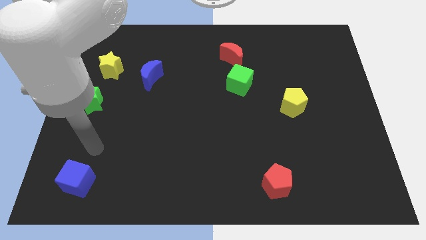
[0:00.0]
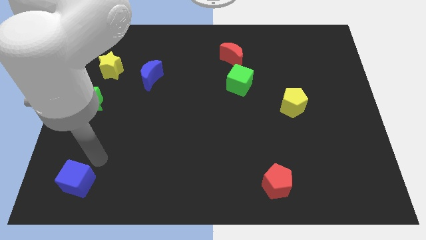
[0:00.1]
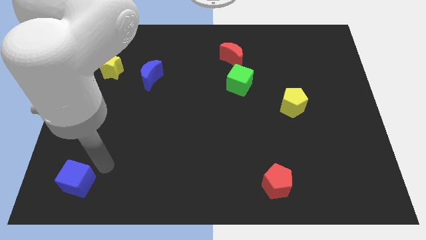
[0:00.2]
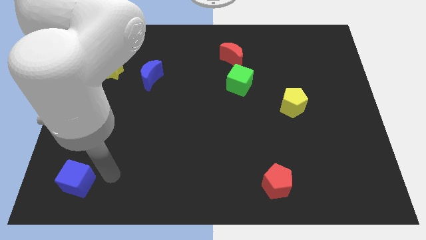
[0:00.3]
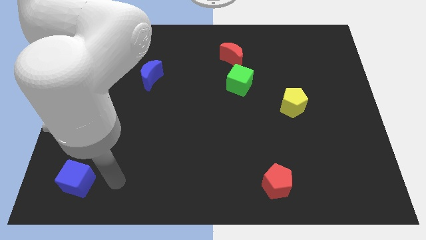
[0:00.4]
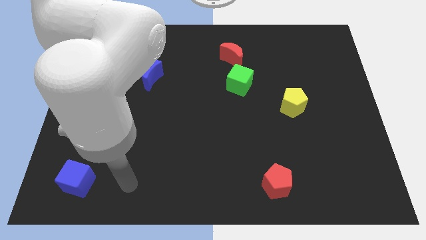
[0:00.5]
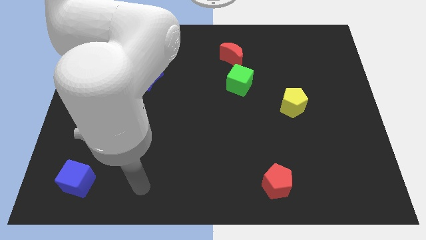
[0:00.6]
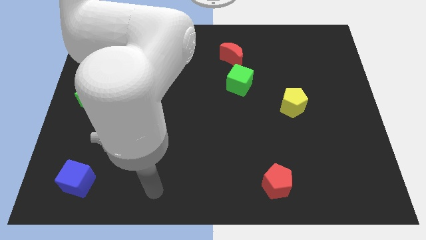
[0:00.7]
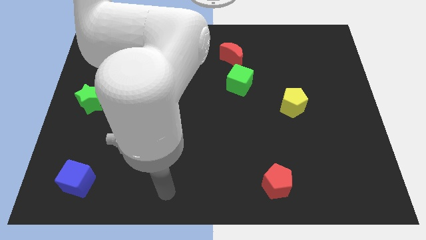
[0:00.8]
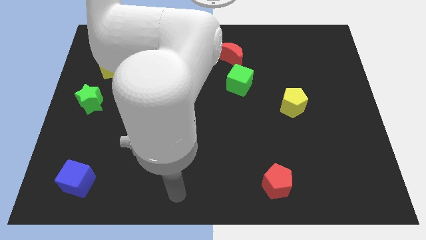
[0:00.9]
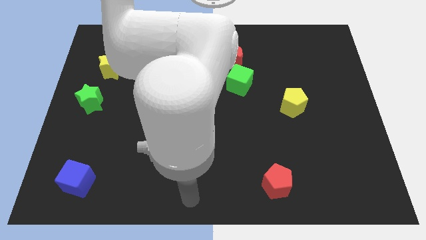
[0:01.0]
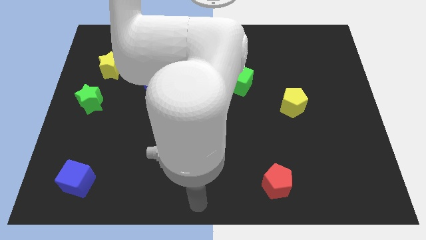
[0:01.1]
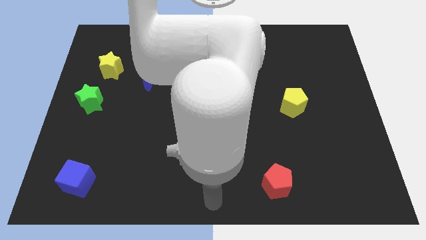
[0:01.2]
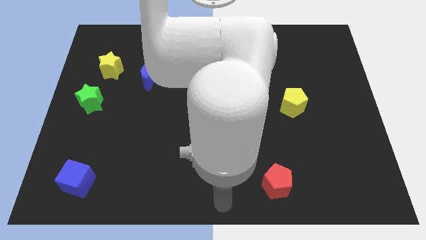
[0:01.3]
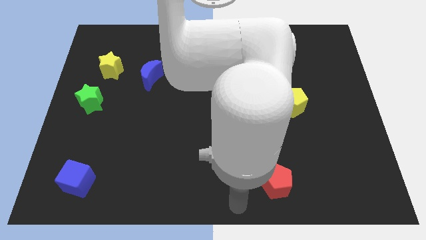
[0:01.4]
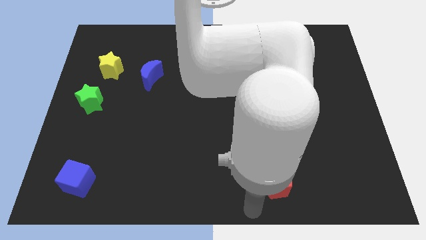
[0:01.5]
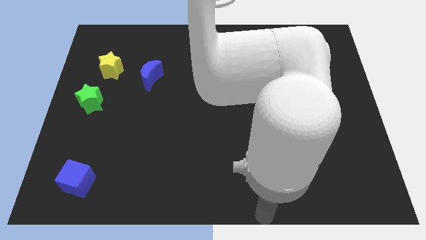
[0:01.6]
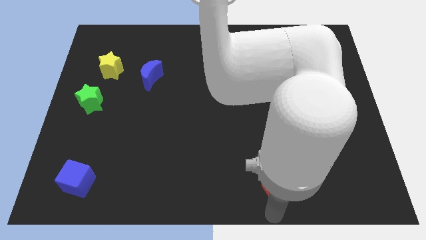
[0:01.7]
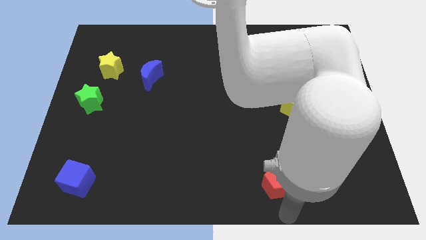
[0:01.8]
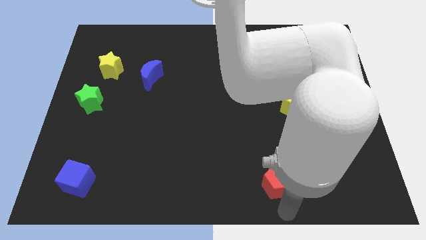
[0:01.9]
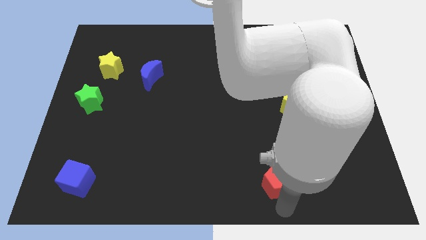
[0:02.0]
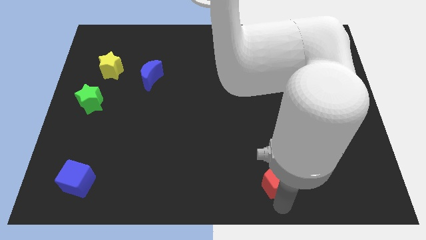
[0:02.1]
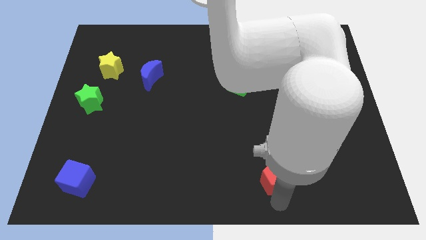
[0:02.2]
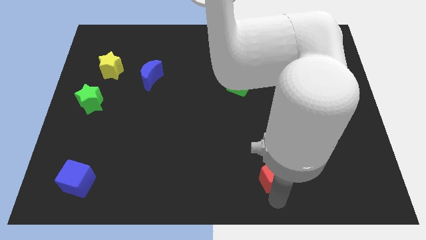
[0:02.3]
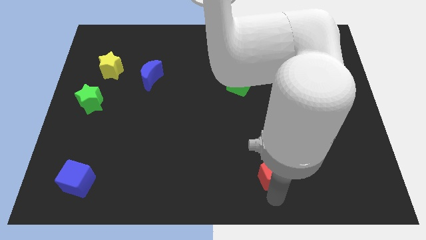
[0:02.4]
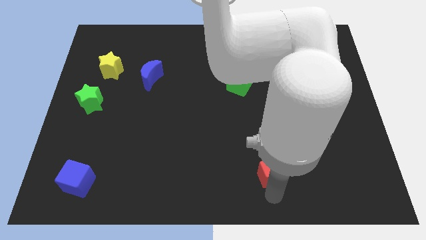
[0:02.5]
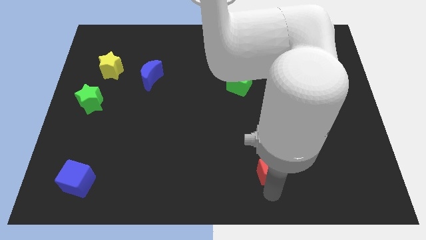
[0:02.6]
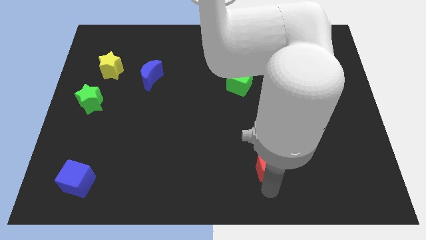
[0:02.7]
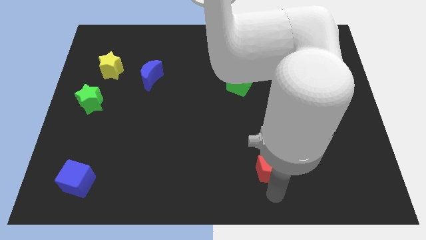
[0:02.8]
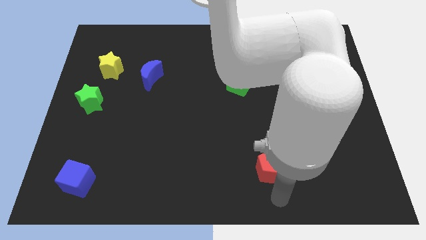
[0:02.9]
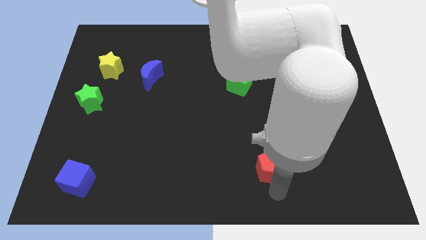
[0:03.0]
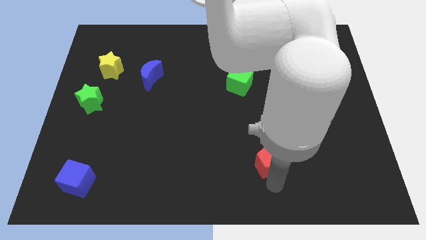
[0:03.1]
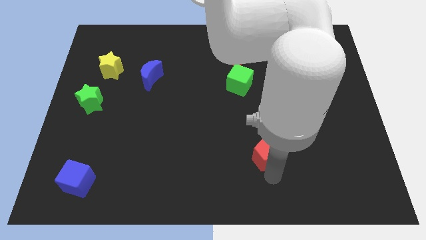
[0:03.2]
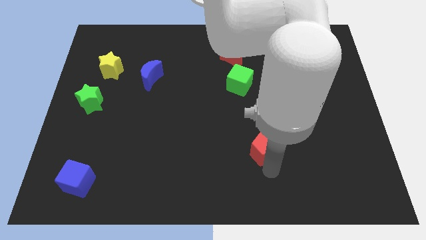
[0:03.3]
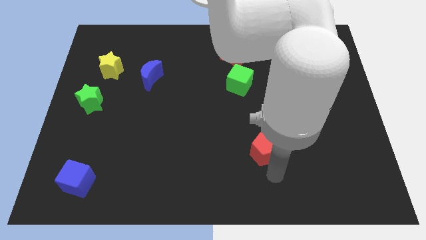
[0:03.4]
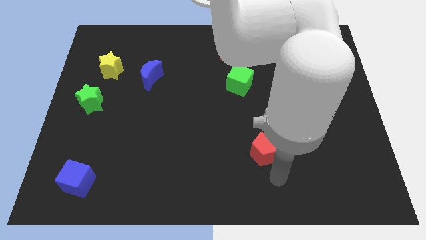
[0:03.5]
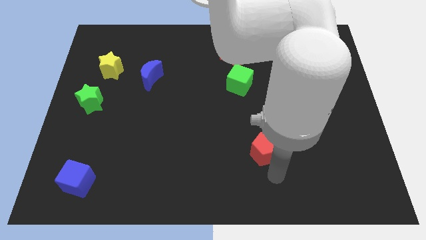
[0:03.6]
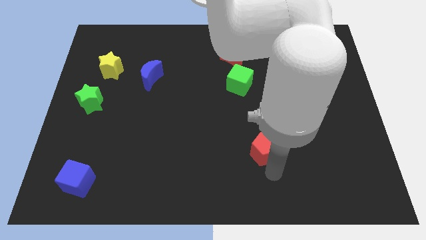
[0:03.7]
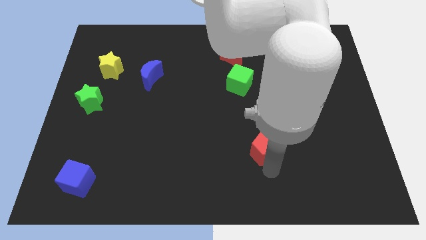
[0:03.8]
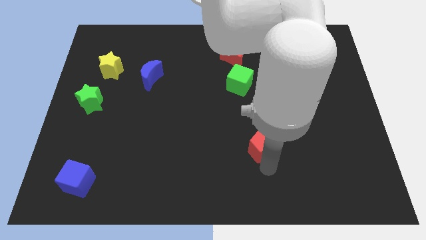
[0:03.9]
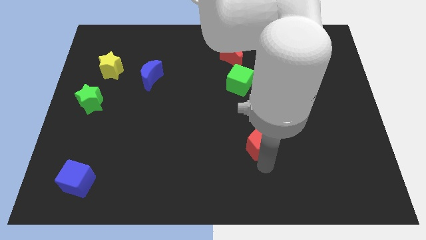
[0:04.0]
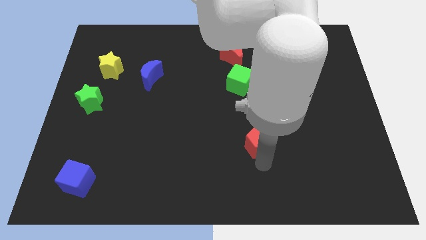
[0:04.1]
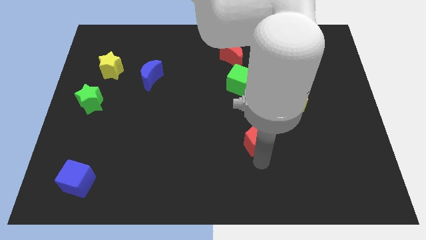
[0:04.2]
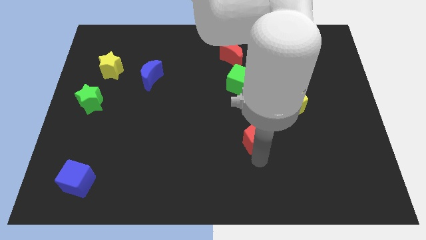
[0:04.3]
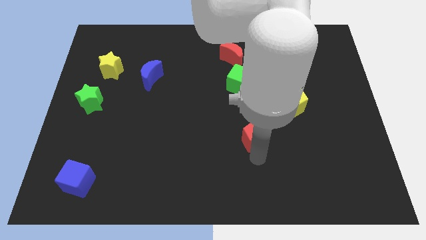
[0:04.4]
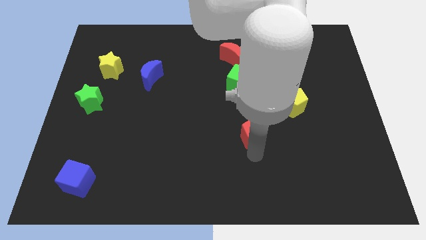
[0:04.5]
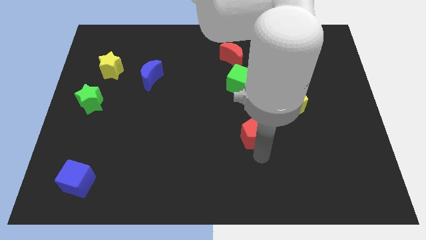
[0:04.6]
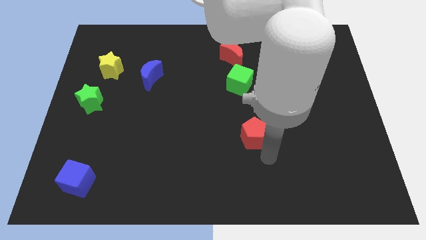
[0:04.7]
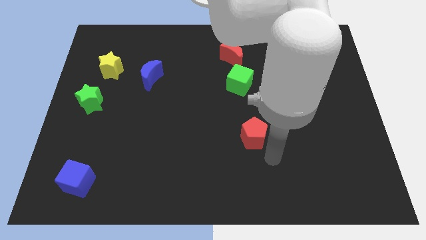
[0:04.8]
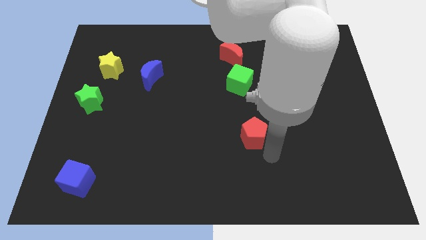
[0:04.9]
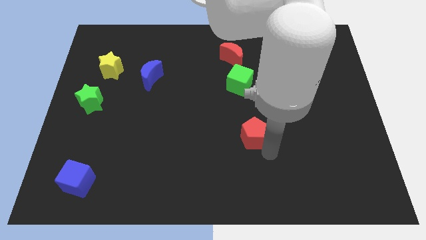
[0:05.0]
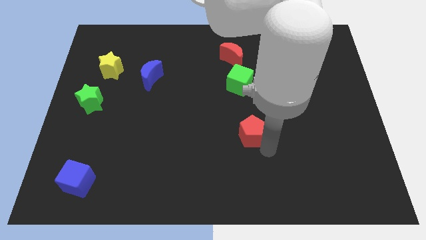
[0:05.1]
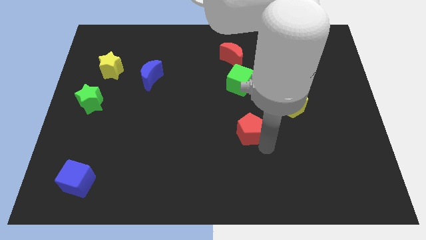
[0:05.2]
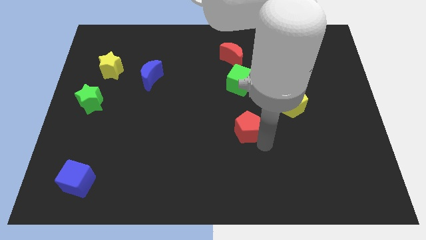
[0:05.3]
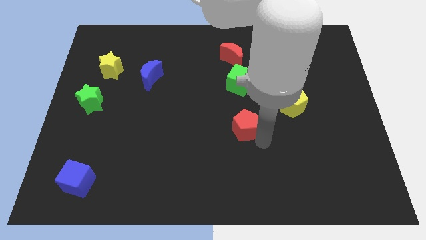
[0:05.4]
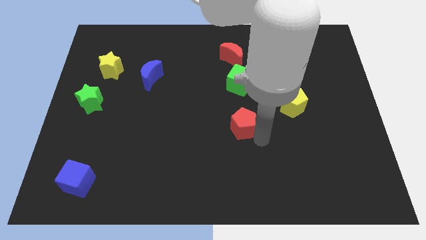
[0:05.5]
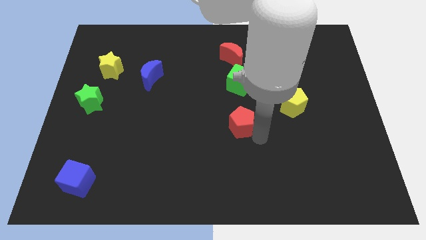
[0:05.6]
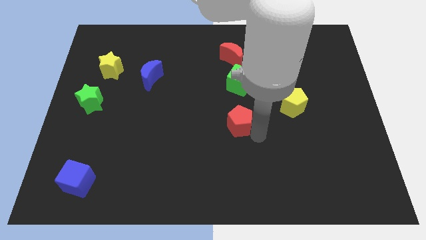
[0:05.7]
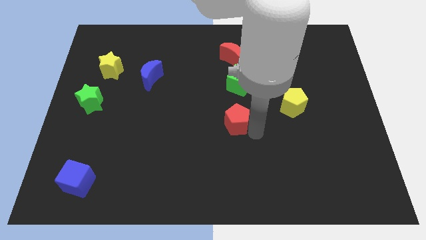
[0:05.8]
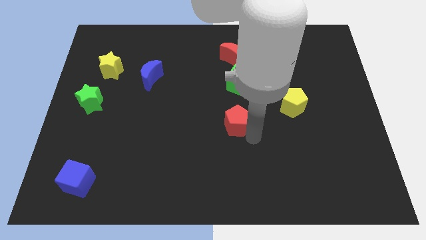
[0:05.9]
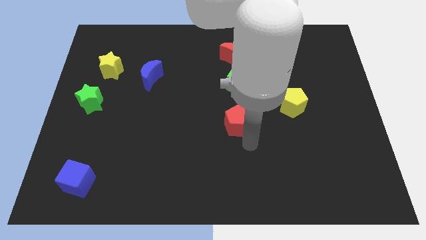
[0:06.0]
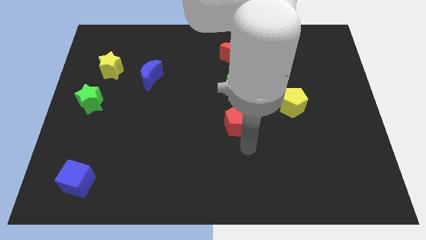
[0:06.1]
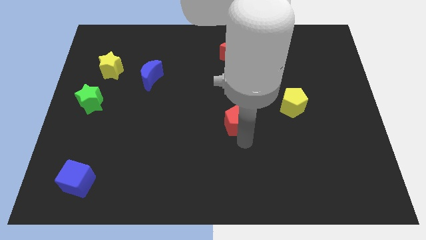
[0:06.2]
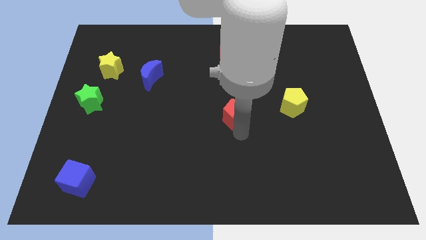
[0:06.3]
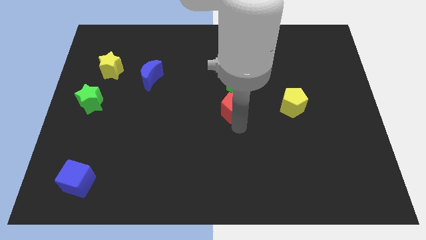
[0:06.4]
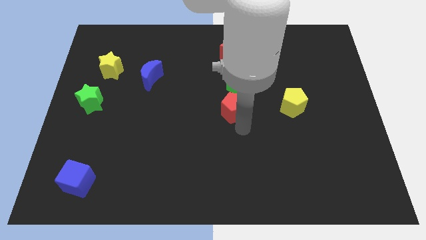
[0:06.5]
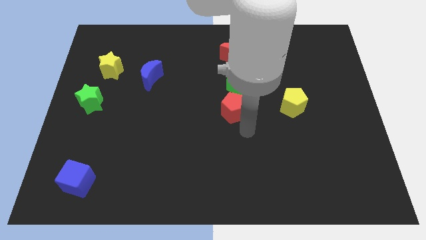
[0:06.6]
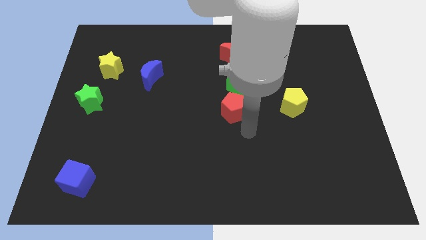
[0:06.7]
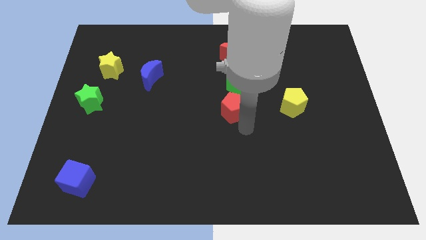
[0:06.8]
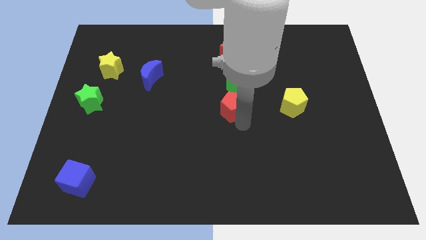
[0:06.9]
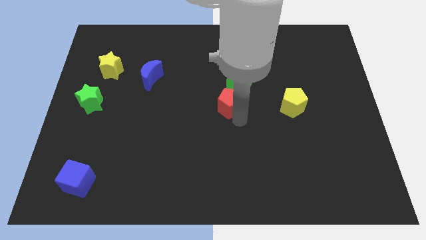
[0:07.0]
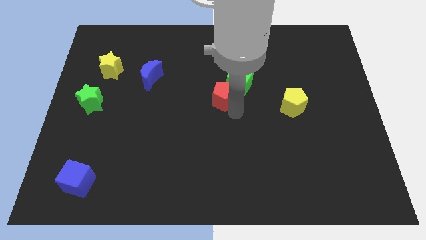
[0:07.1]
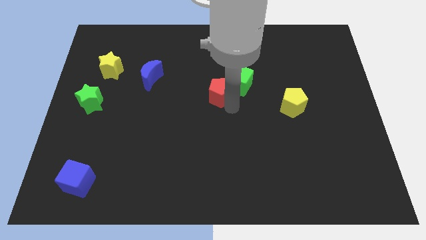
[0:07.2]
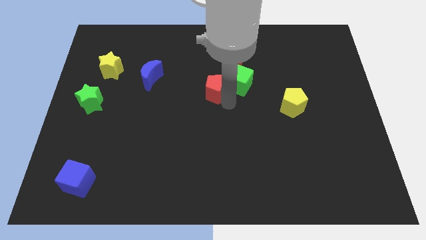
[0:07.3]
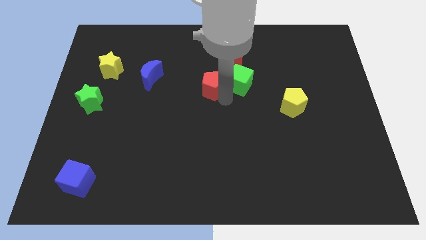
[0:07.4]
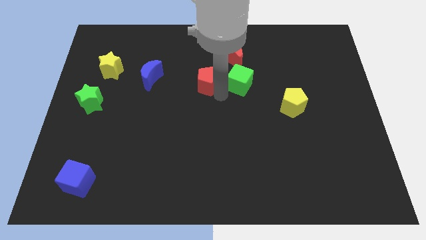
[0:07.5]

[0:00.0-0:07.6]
slide the red pentagon right of the blue moon
